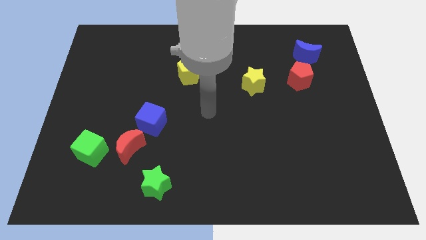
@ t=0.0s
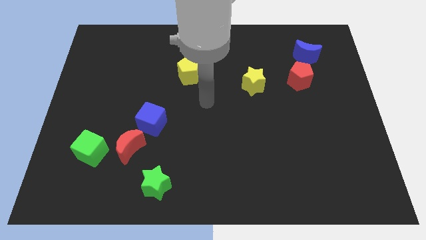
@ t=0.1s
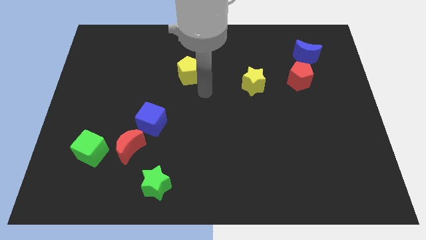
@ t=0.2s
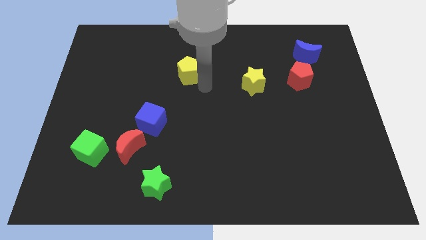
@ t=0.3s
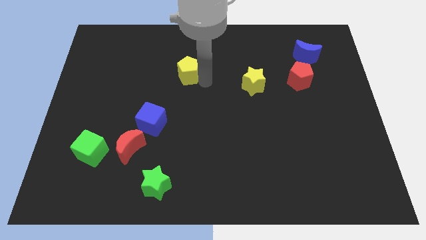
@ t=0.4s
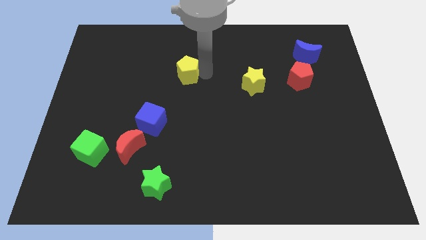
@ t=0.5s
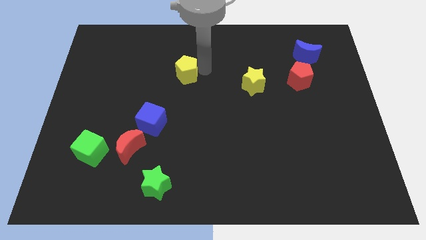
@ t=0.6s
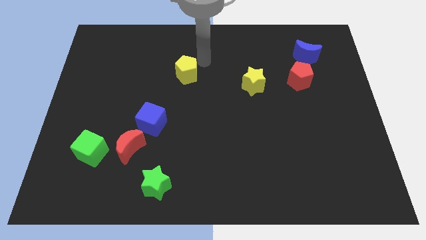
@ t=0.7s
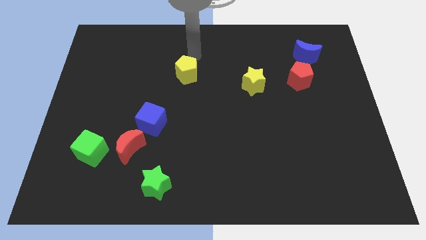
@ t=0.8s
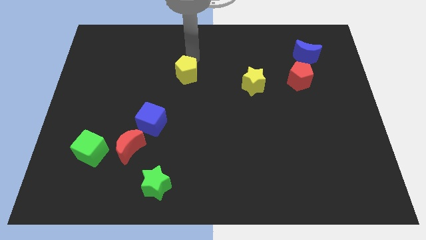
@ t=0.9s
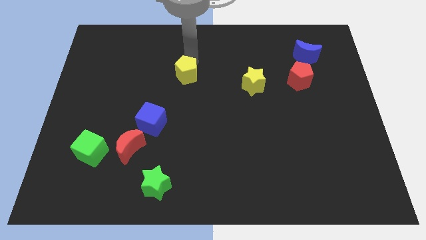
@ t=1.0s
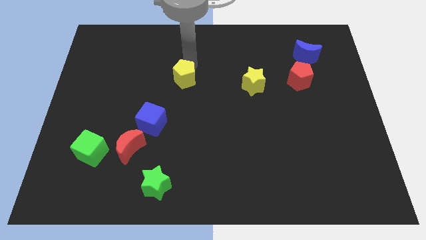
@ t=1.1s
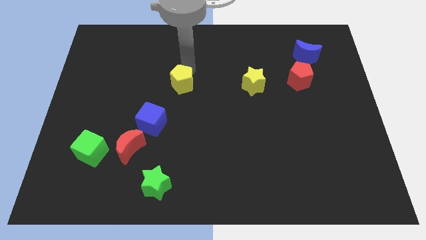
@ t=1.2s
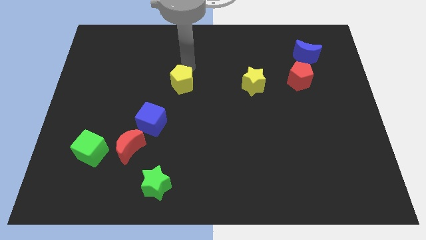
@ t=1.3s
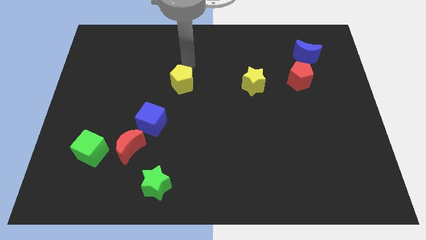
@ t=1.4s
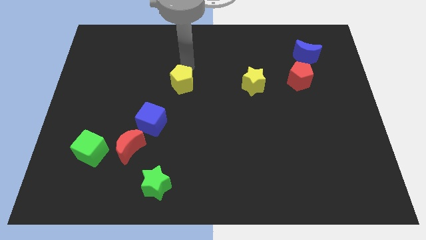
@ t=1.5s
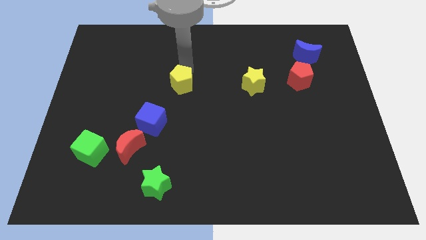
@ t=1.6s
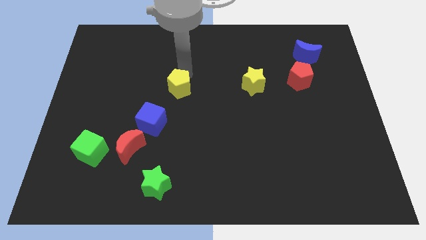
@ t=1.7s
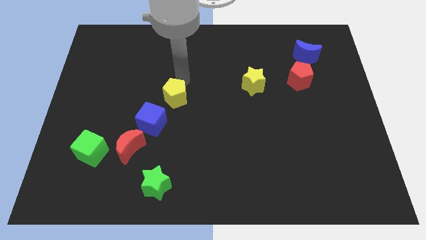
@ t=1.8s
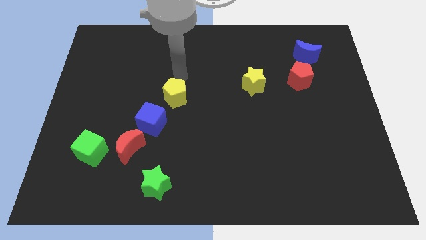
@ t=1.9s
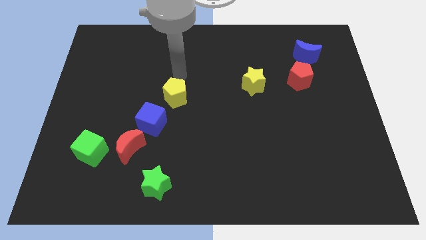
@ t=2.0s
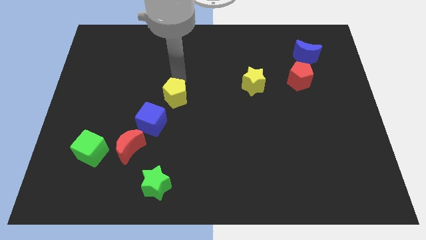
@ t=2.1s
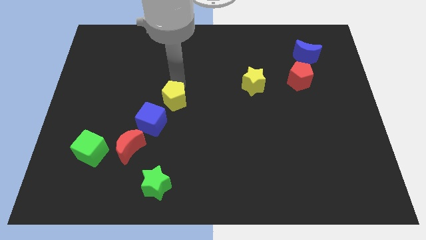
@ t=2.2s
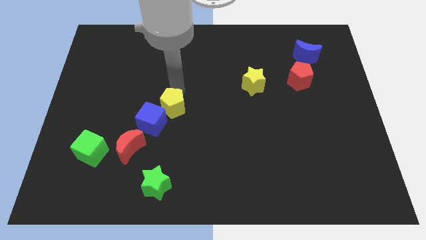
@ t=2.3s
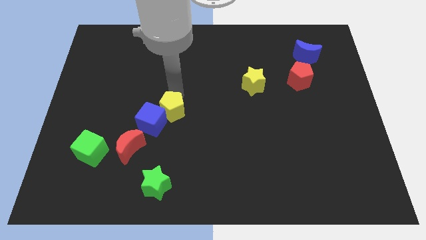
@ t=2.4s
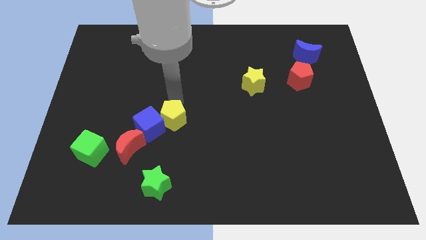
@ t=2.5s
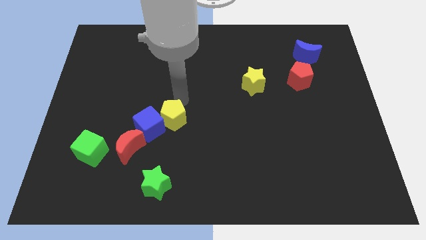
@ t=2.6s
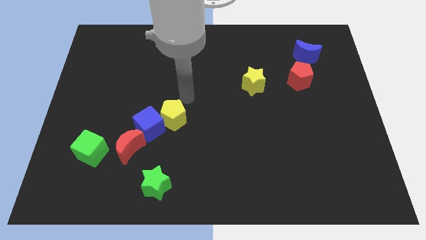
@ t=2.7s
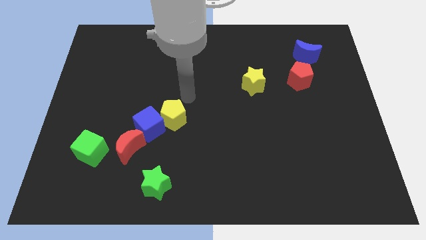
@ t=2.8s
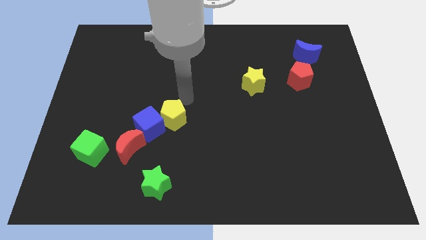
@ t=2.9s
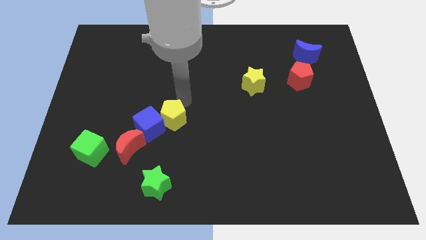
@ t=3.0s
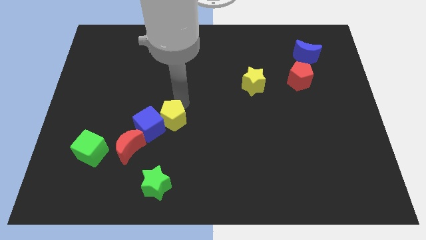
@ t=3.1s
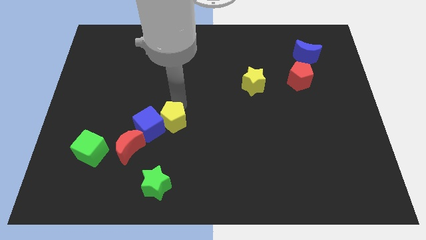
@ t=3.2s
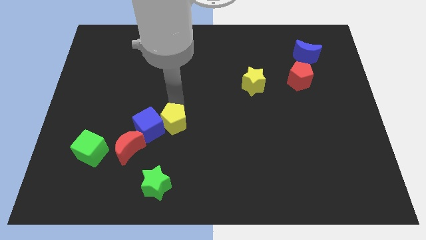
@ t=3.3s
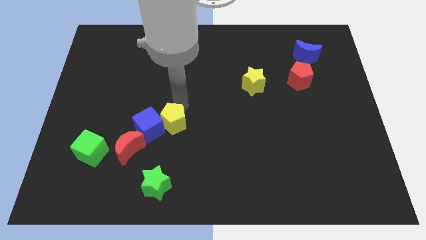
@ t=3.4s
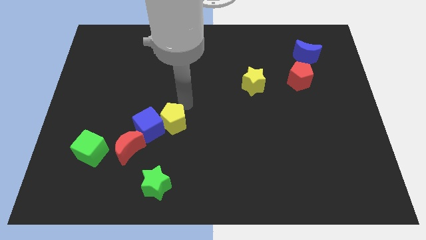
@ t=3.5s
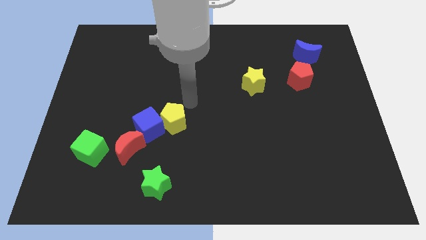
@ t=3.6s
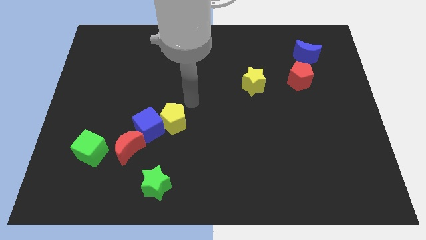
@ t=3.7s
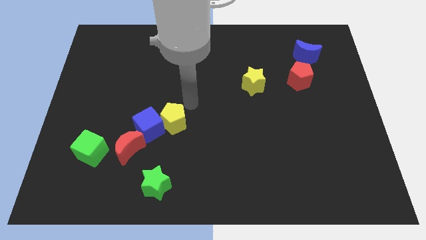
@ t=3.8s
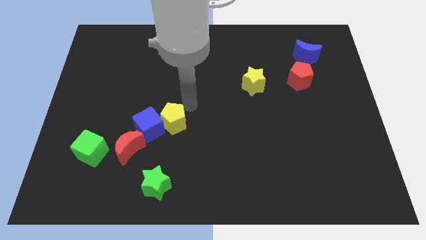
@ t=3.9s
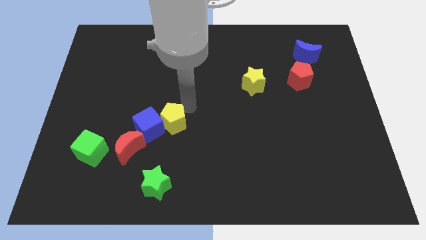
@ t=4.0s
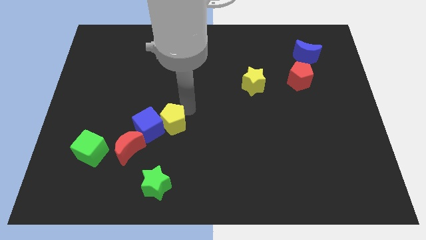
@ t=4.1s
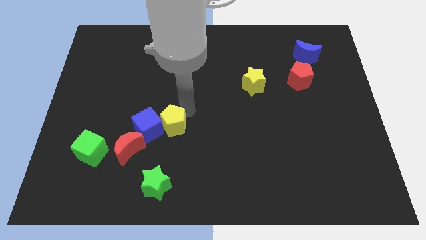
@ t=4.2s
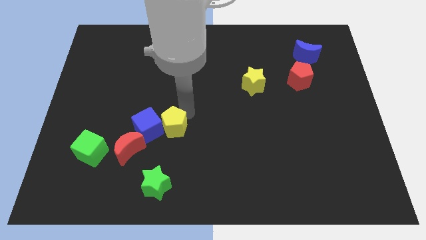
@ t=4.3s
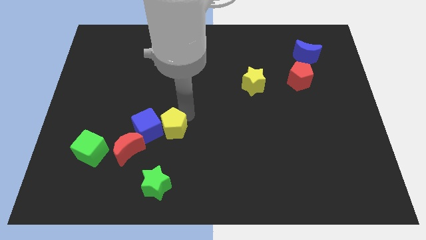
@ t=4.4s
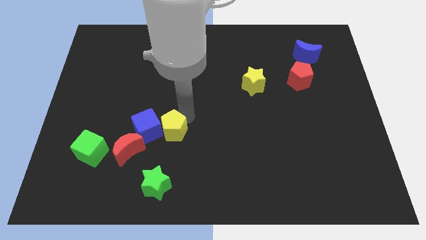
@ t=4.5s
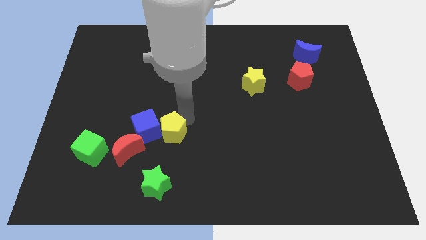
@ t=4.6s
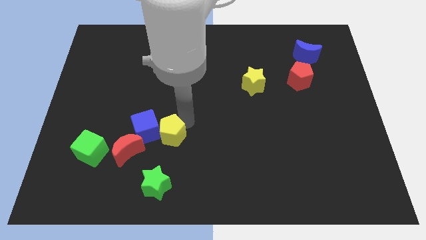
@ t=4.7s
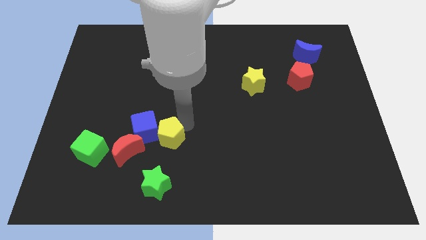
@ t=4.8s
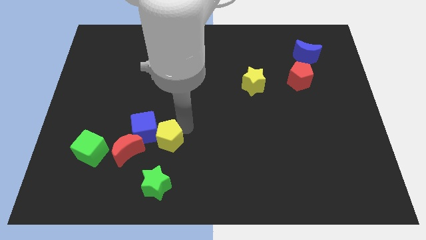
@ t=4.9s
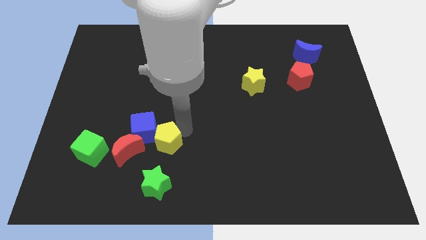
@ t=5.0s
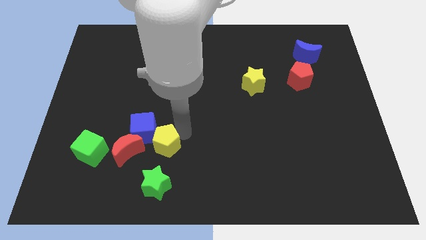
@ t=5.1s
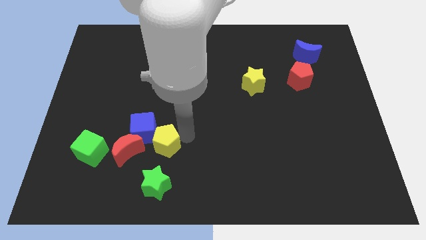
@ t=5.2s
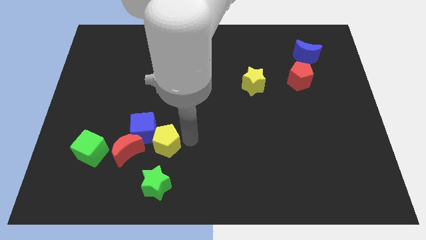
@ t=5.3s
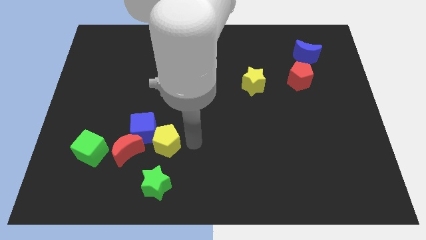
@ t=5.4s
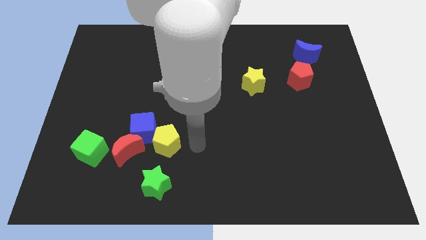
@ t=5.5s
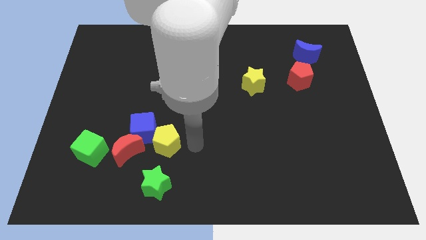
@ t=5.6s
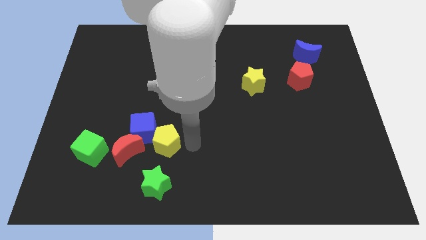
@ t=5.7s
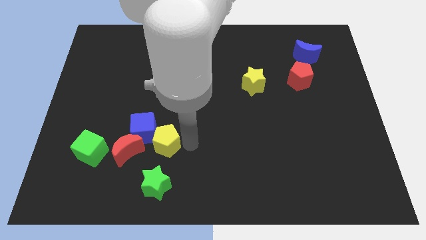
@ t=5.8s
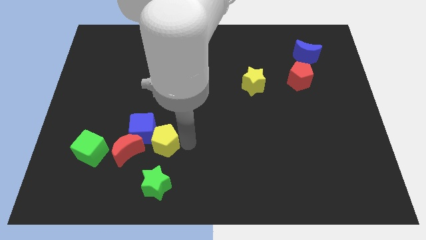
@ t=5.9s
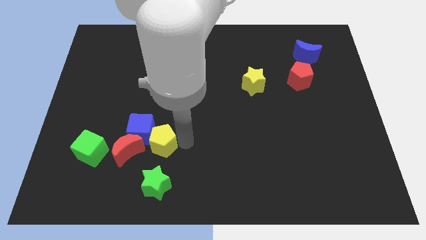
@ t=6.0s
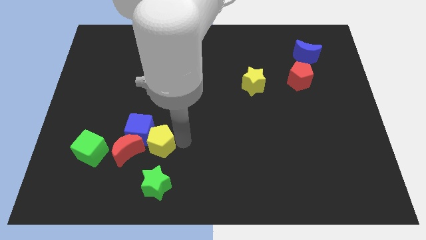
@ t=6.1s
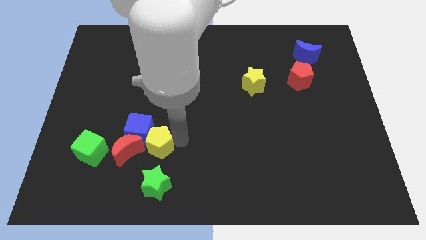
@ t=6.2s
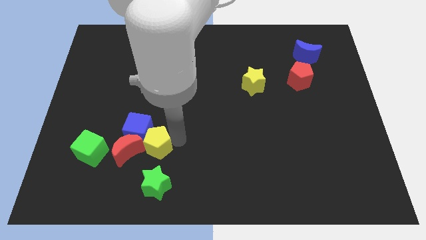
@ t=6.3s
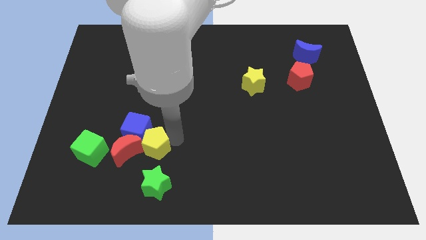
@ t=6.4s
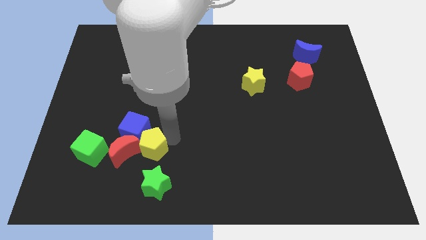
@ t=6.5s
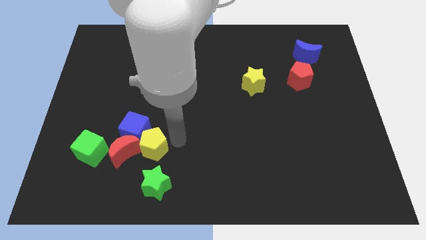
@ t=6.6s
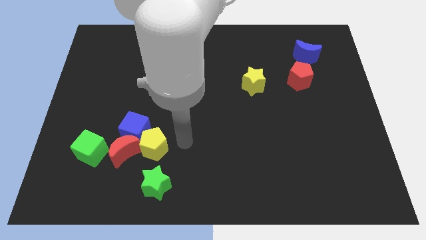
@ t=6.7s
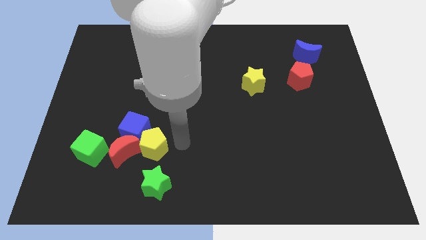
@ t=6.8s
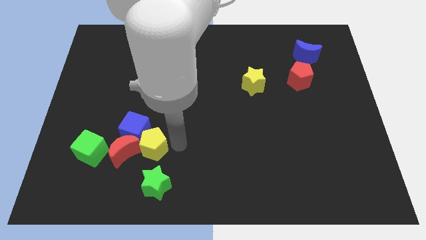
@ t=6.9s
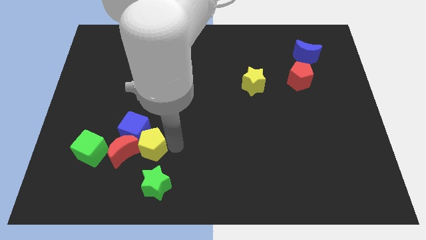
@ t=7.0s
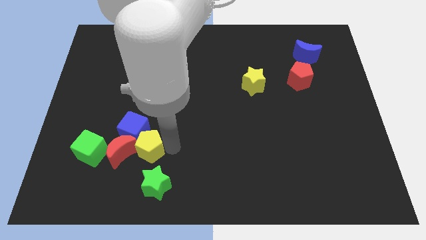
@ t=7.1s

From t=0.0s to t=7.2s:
move the yellow pentagon next to the red moon
